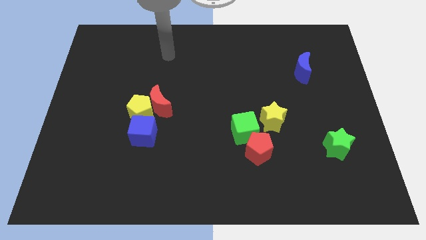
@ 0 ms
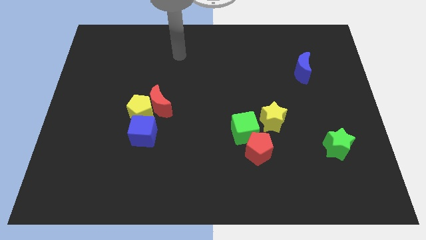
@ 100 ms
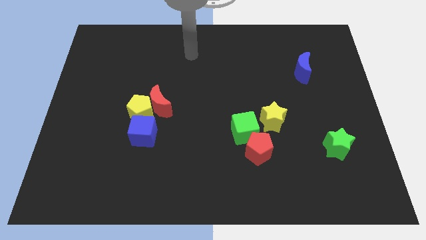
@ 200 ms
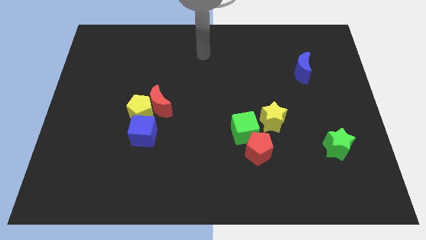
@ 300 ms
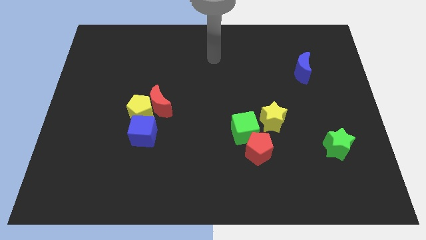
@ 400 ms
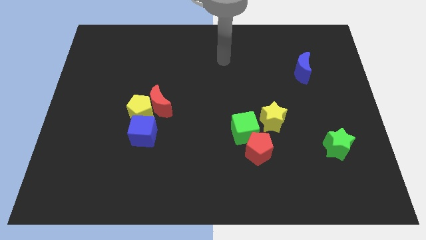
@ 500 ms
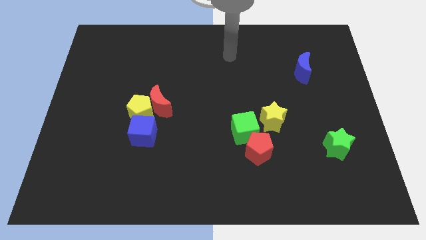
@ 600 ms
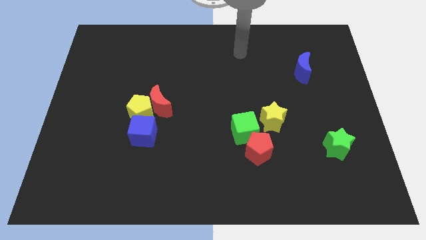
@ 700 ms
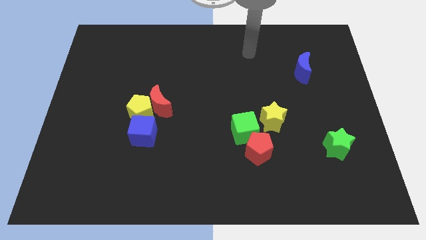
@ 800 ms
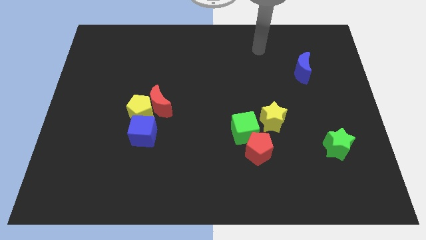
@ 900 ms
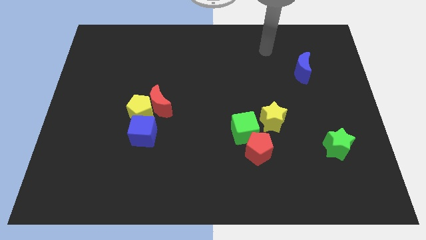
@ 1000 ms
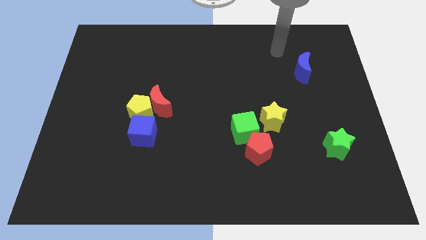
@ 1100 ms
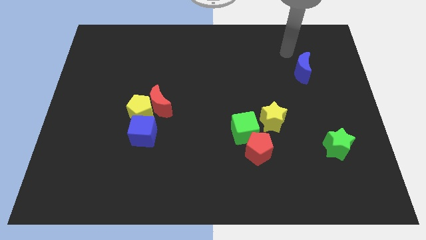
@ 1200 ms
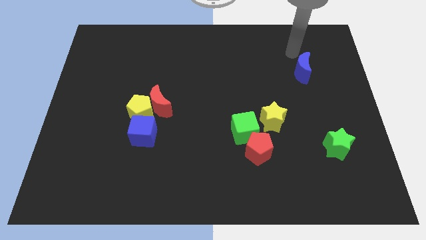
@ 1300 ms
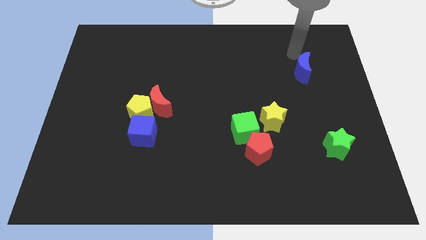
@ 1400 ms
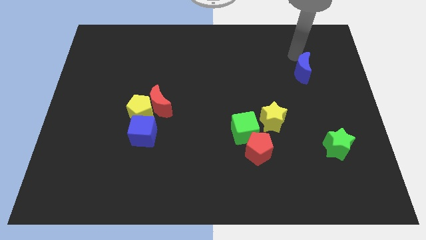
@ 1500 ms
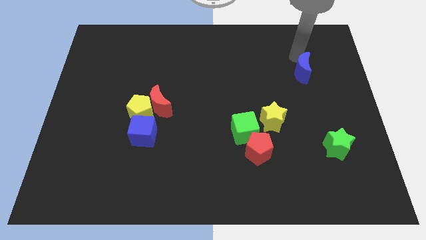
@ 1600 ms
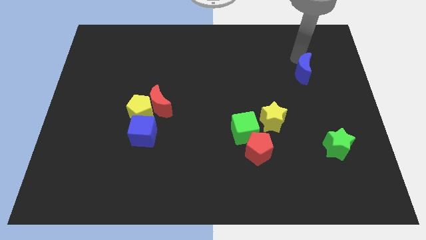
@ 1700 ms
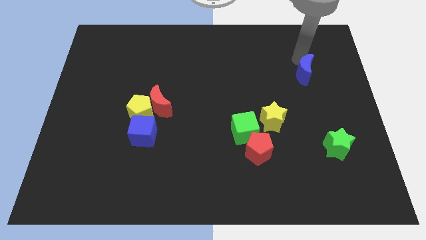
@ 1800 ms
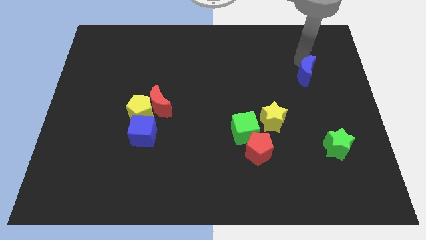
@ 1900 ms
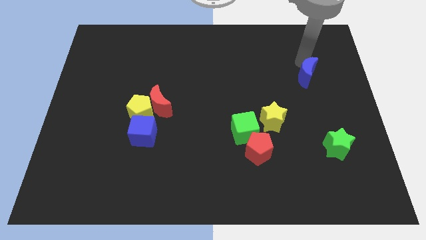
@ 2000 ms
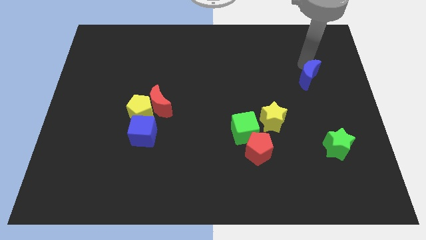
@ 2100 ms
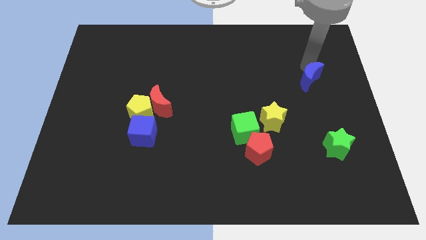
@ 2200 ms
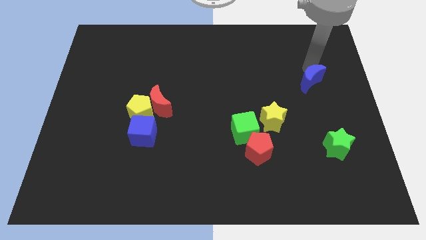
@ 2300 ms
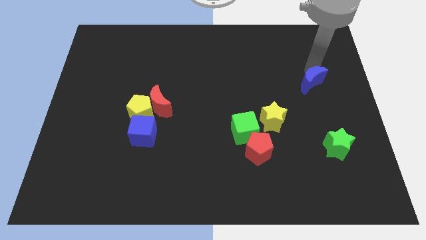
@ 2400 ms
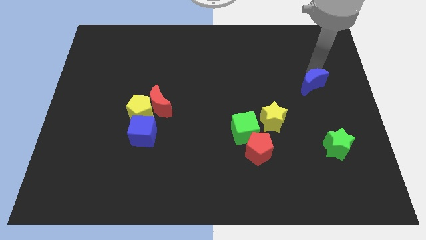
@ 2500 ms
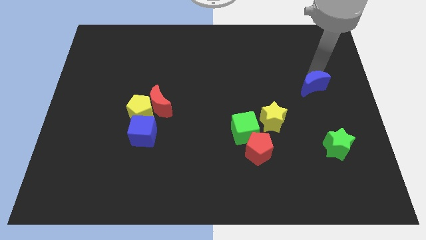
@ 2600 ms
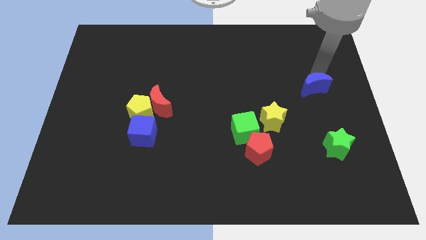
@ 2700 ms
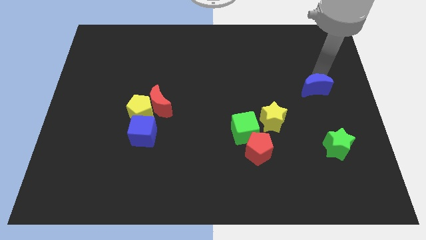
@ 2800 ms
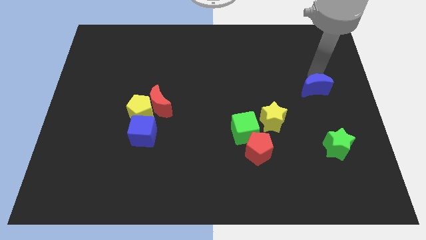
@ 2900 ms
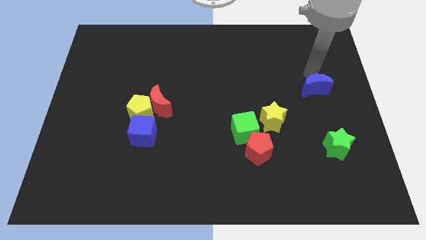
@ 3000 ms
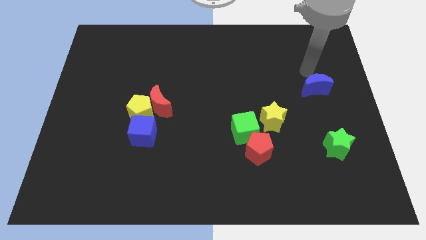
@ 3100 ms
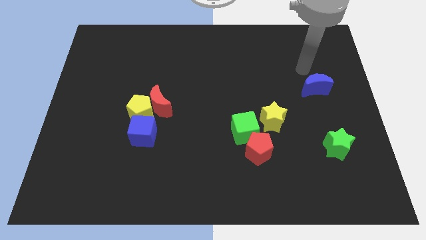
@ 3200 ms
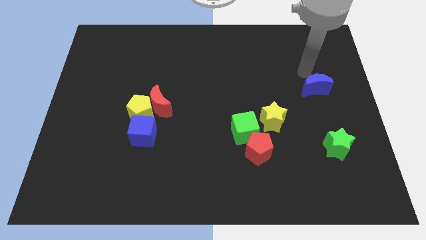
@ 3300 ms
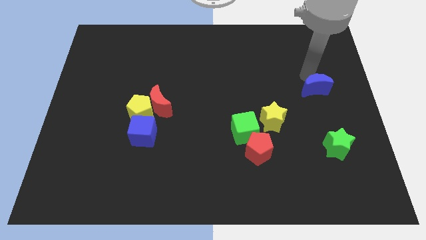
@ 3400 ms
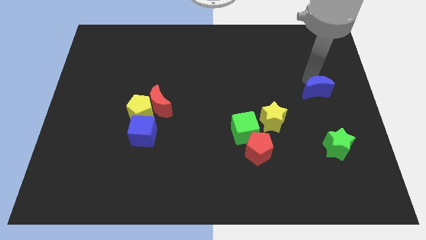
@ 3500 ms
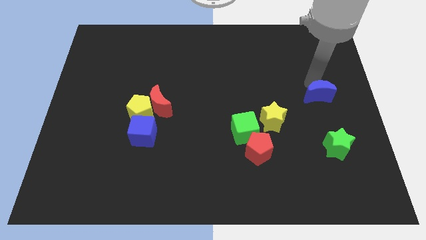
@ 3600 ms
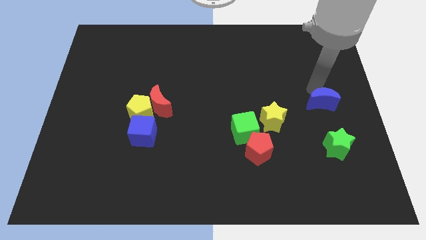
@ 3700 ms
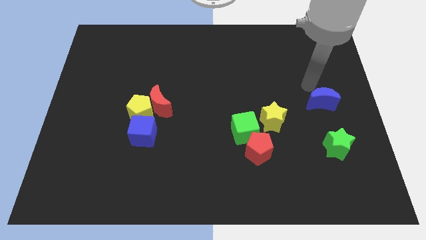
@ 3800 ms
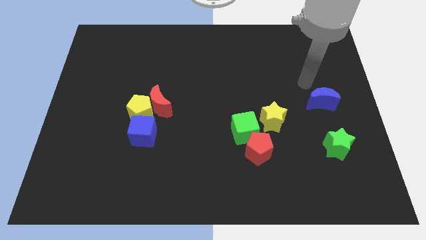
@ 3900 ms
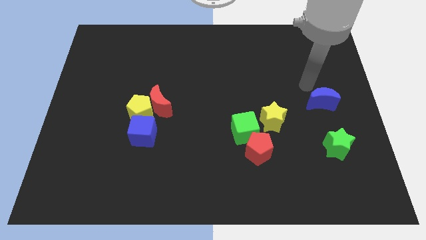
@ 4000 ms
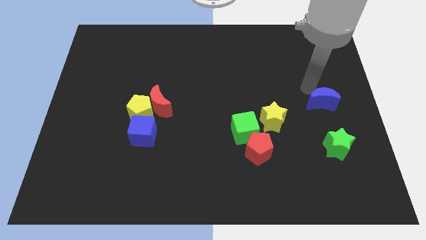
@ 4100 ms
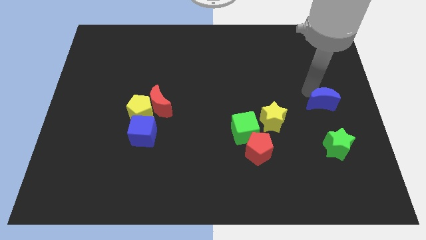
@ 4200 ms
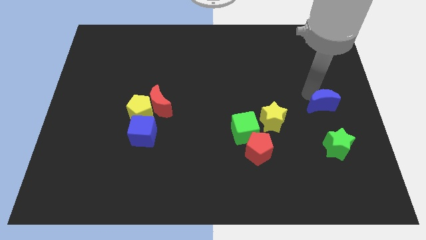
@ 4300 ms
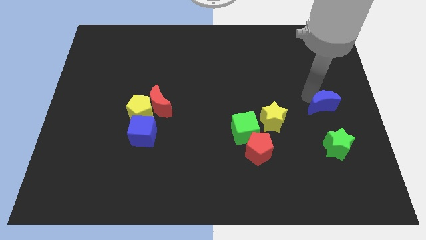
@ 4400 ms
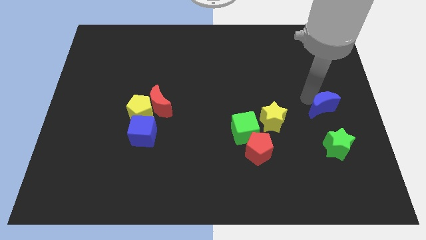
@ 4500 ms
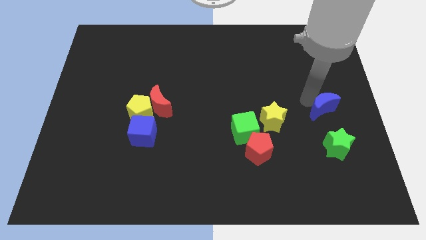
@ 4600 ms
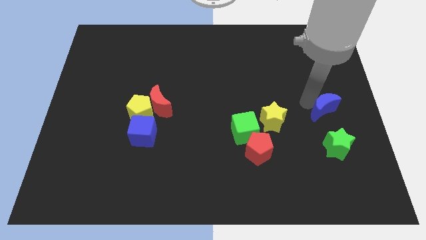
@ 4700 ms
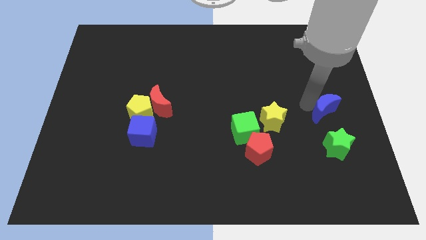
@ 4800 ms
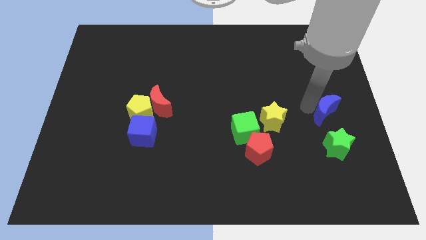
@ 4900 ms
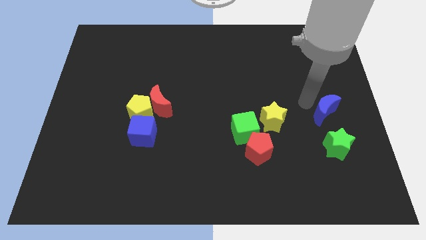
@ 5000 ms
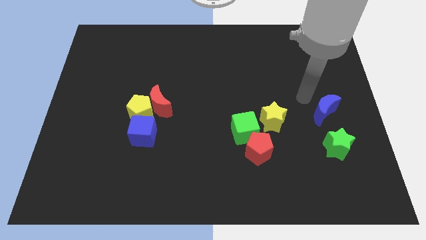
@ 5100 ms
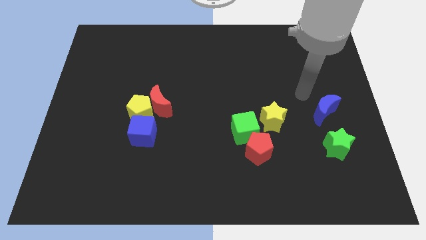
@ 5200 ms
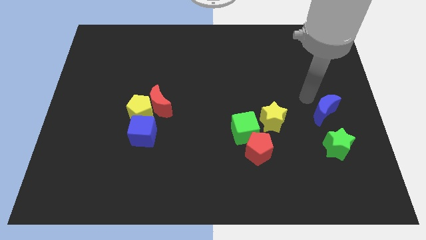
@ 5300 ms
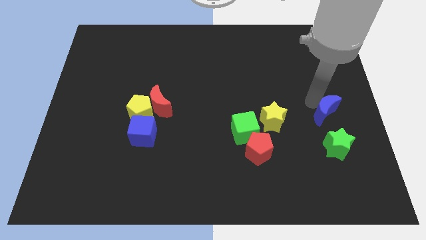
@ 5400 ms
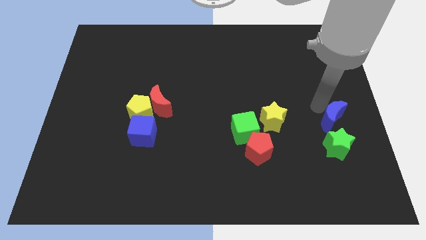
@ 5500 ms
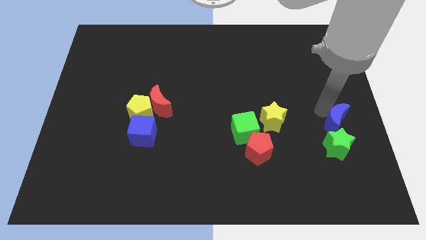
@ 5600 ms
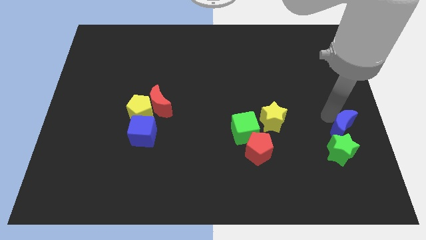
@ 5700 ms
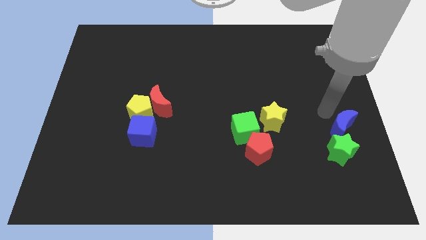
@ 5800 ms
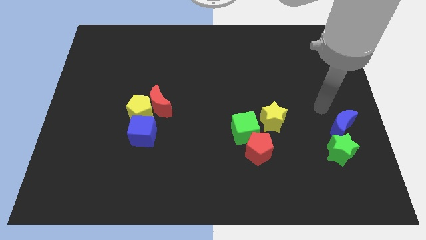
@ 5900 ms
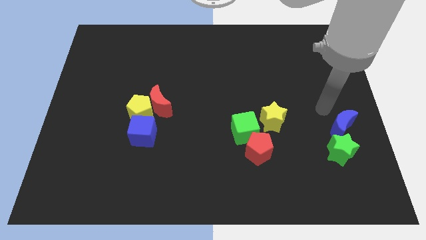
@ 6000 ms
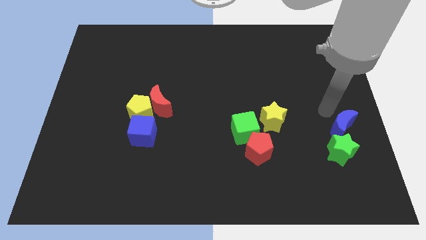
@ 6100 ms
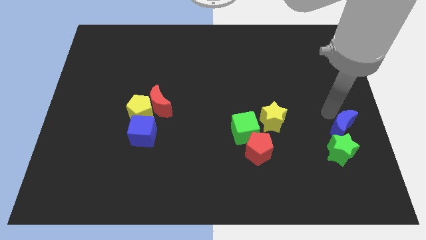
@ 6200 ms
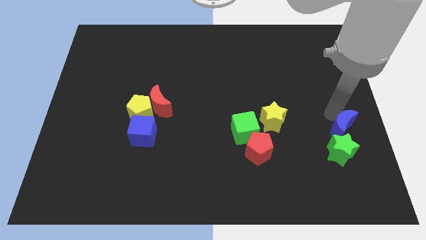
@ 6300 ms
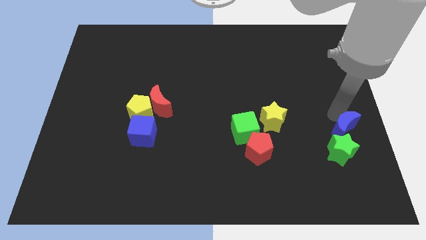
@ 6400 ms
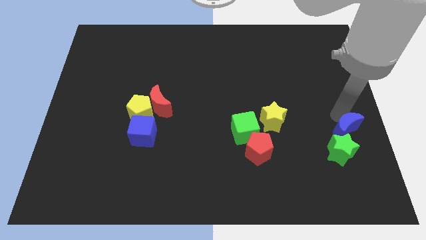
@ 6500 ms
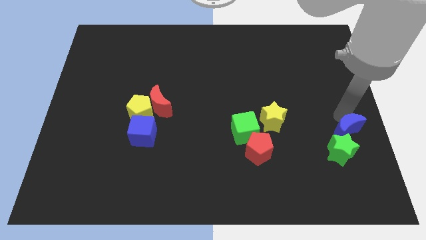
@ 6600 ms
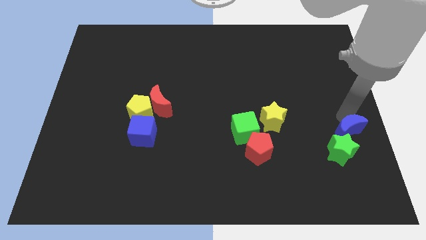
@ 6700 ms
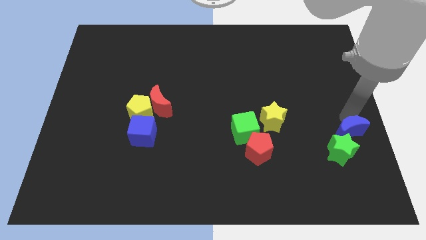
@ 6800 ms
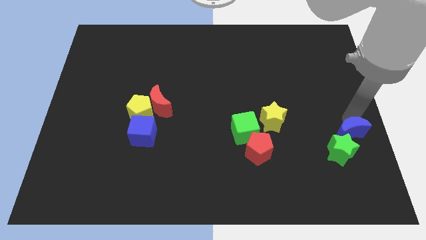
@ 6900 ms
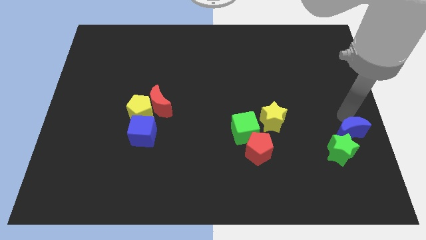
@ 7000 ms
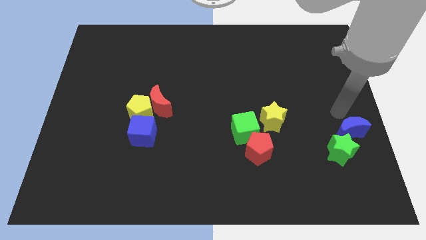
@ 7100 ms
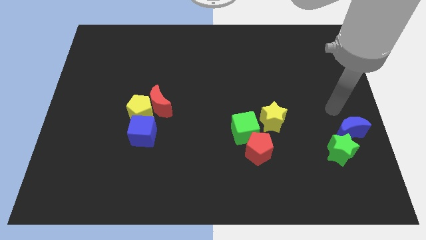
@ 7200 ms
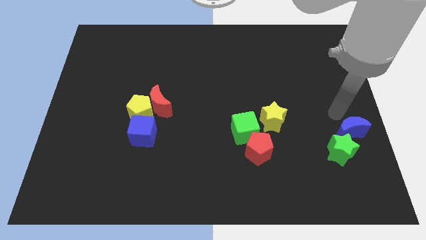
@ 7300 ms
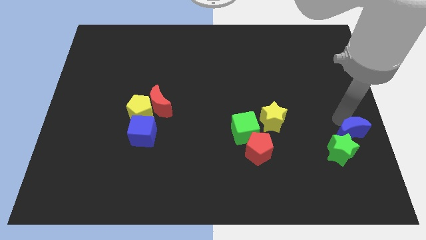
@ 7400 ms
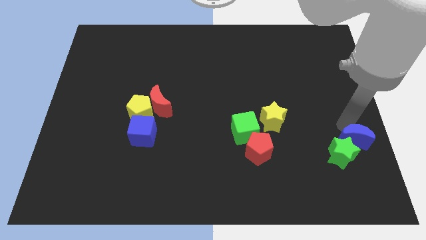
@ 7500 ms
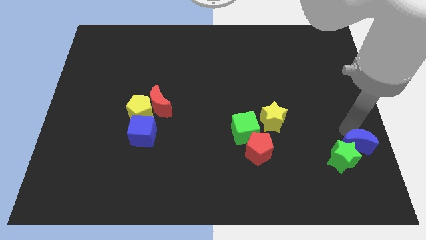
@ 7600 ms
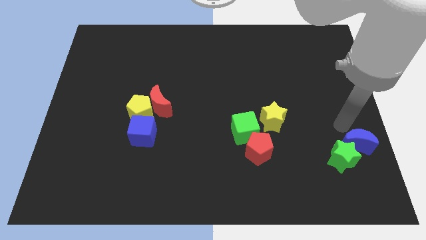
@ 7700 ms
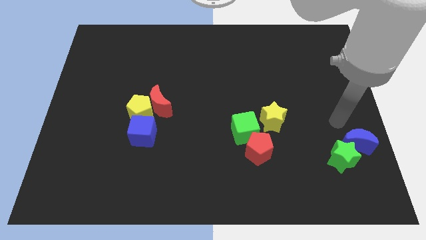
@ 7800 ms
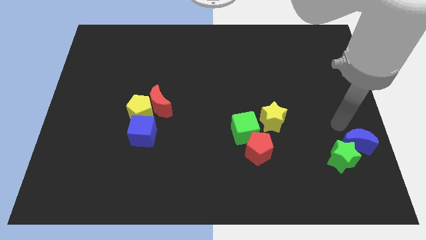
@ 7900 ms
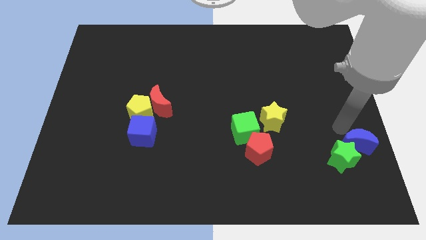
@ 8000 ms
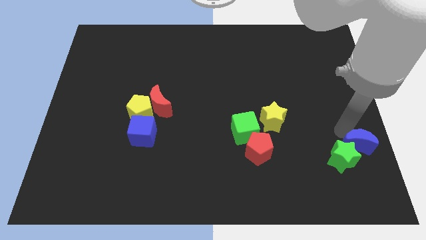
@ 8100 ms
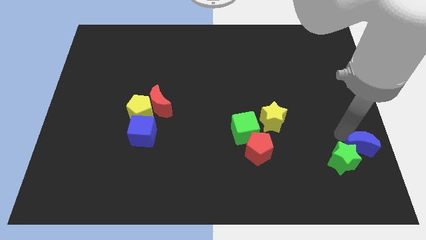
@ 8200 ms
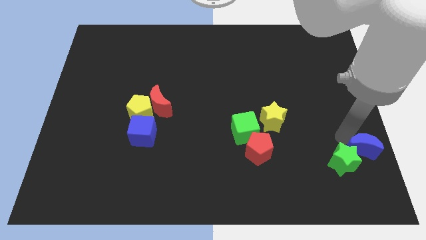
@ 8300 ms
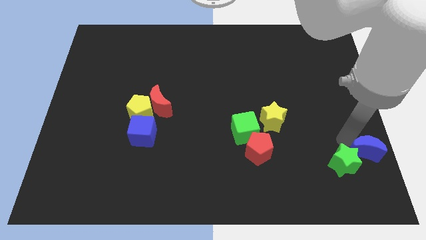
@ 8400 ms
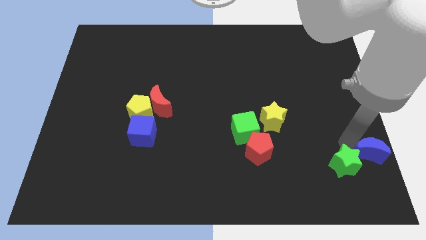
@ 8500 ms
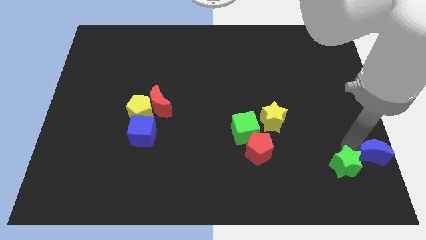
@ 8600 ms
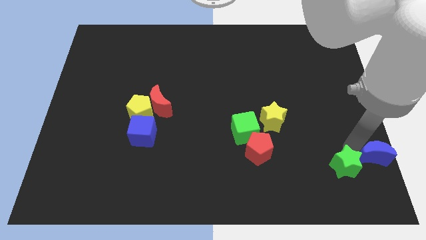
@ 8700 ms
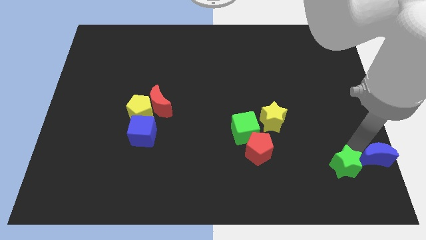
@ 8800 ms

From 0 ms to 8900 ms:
put the blue moon to the bottom right
